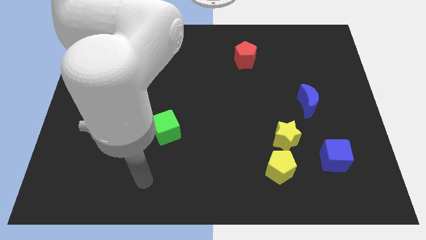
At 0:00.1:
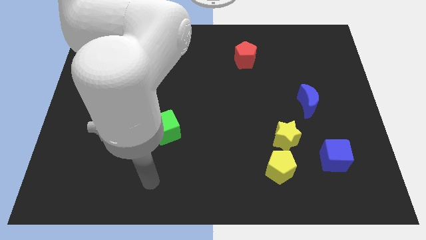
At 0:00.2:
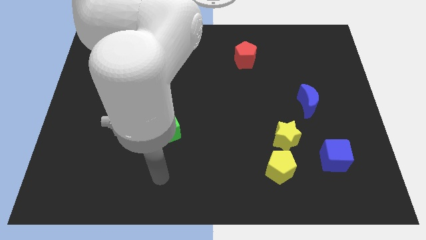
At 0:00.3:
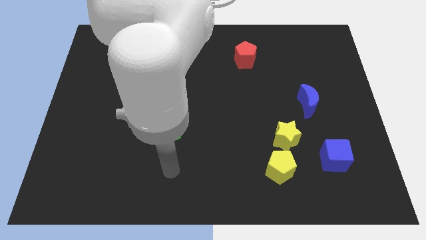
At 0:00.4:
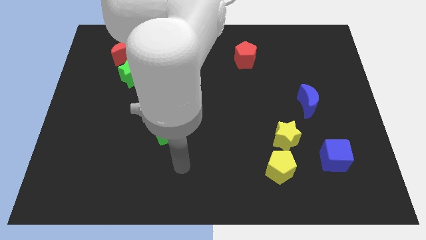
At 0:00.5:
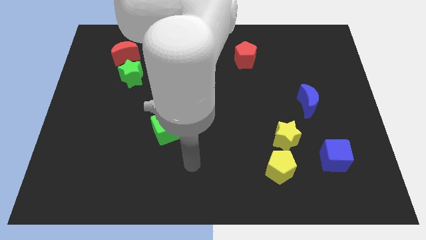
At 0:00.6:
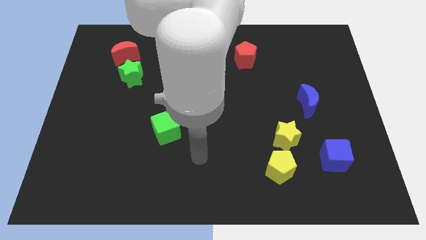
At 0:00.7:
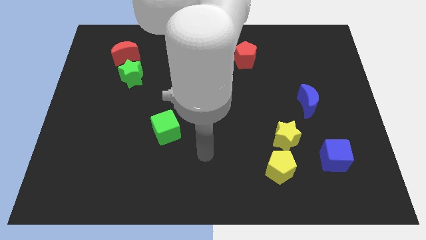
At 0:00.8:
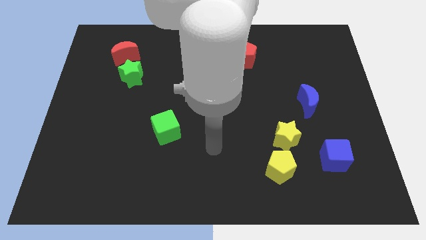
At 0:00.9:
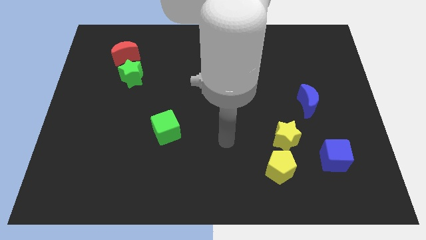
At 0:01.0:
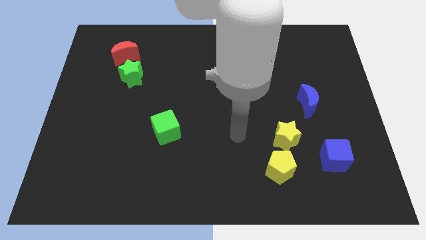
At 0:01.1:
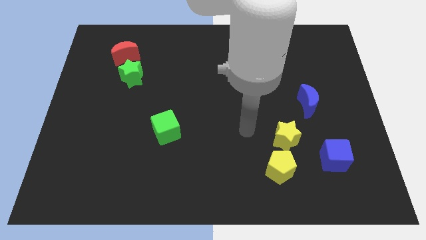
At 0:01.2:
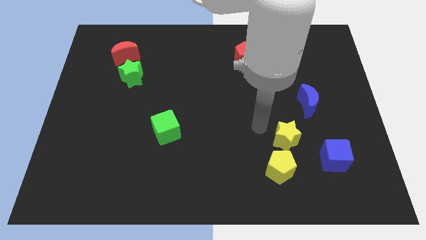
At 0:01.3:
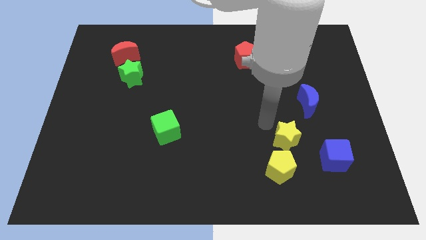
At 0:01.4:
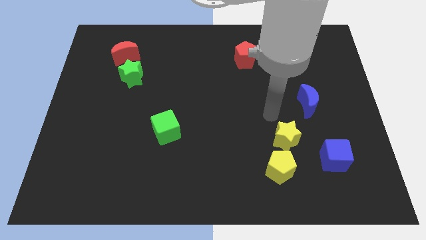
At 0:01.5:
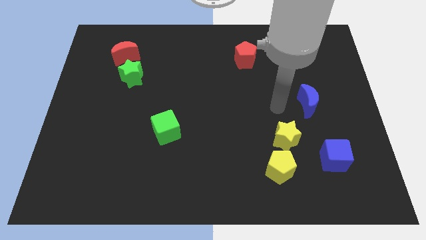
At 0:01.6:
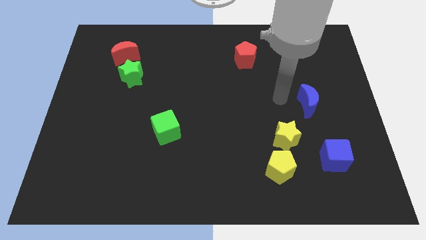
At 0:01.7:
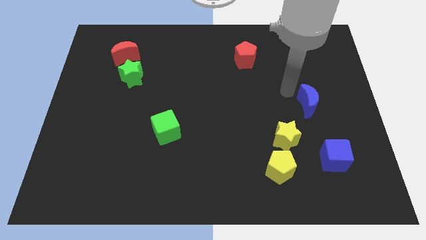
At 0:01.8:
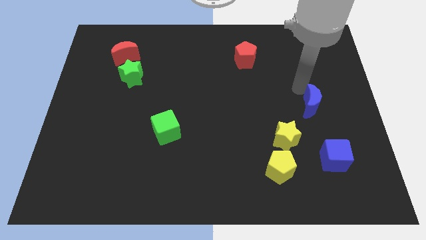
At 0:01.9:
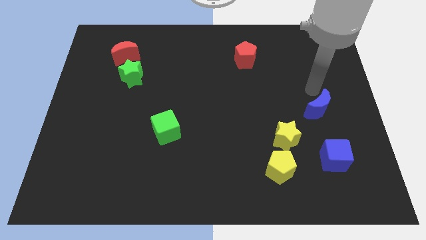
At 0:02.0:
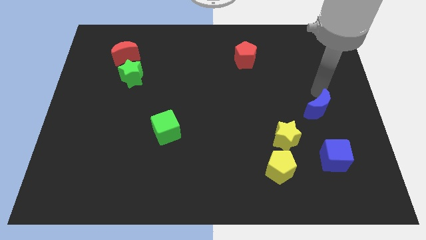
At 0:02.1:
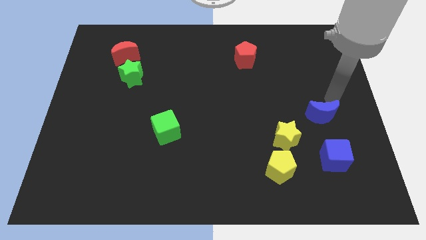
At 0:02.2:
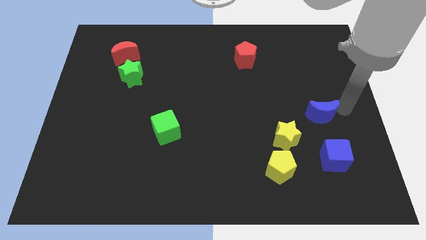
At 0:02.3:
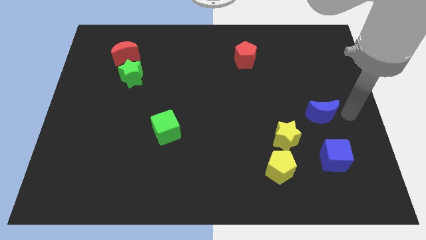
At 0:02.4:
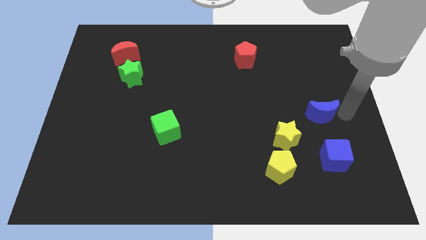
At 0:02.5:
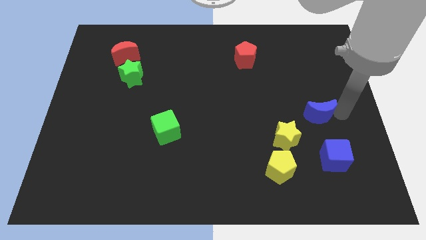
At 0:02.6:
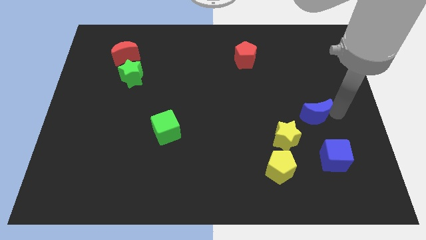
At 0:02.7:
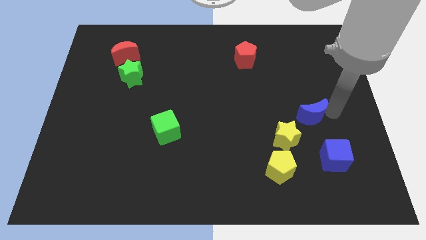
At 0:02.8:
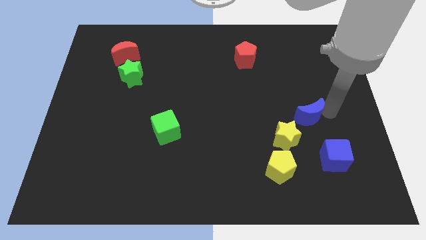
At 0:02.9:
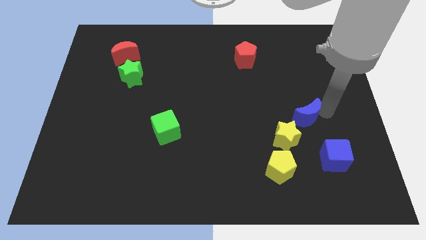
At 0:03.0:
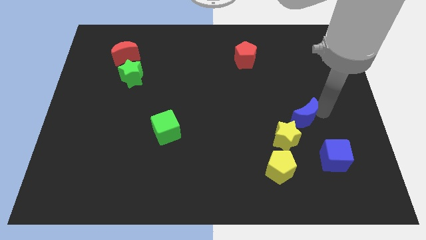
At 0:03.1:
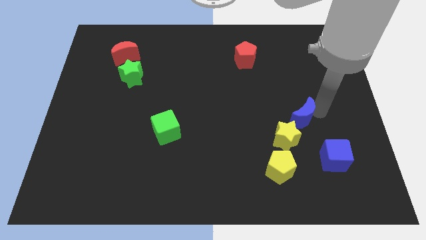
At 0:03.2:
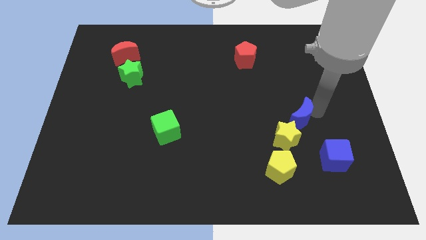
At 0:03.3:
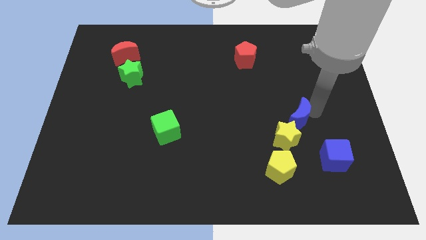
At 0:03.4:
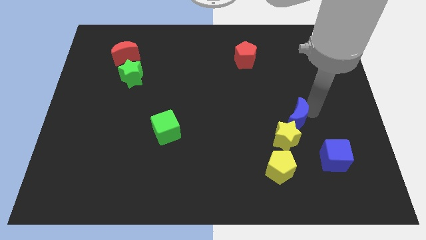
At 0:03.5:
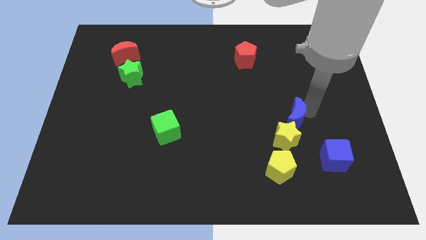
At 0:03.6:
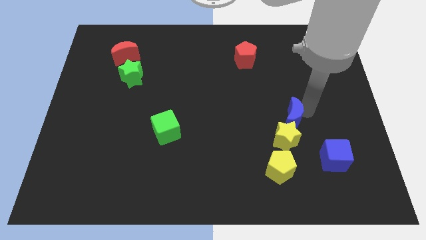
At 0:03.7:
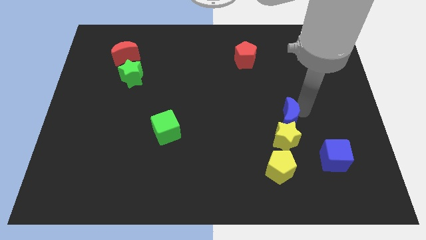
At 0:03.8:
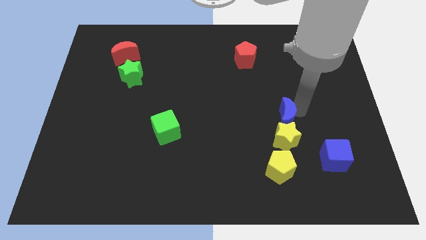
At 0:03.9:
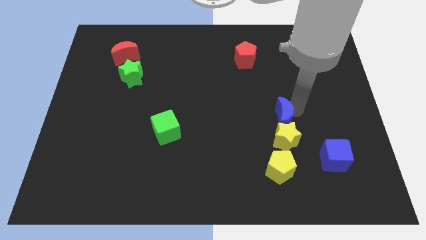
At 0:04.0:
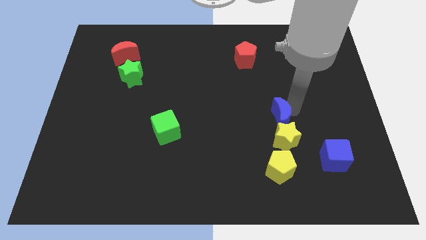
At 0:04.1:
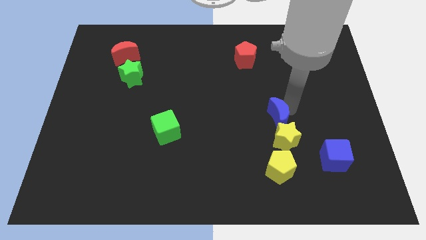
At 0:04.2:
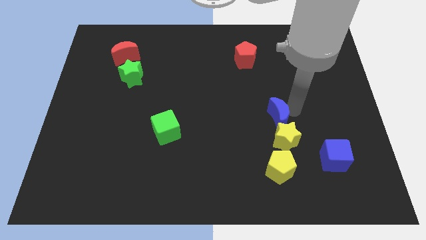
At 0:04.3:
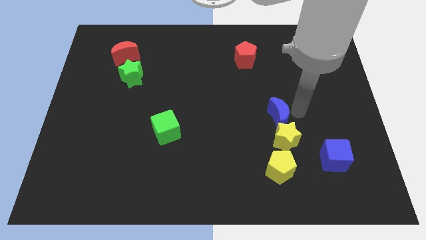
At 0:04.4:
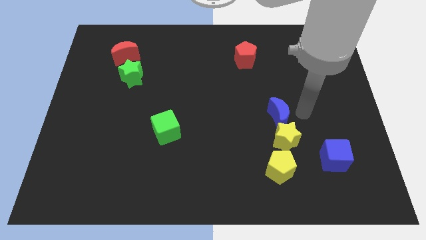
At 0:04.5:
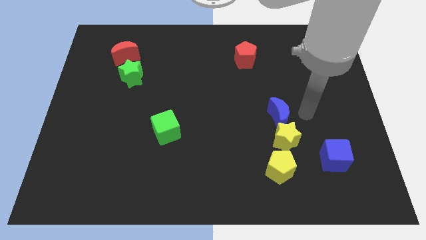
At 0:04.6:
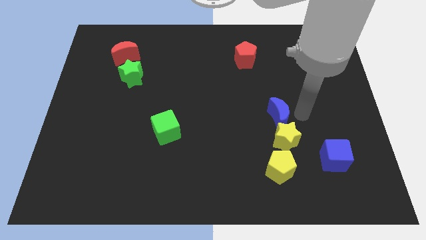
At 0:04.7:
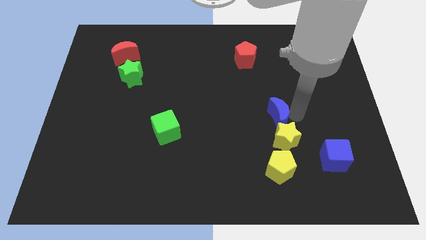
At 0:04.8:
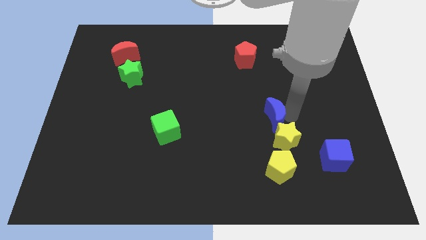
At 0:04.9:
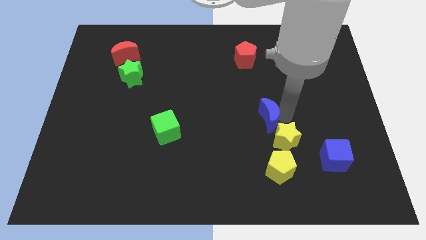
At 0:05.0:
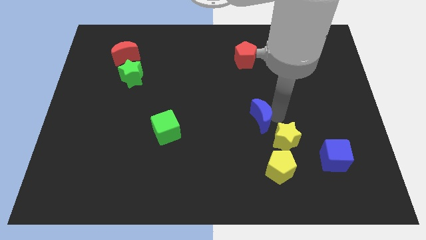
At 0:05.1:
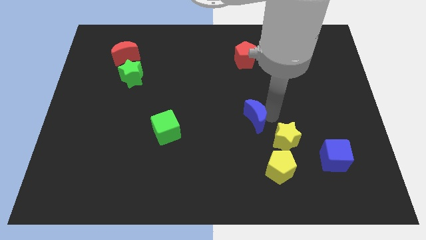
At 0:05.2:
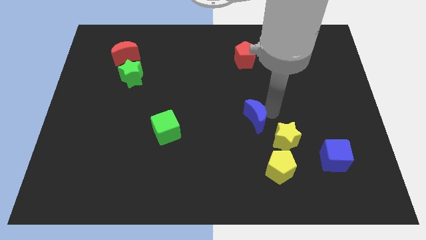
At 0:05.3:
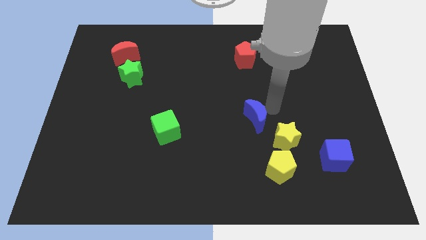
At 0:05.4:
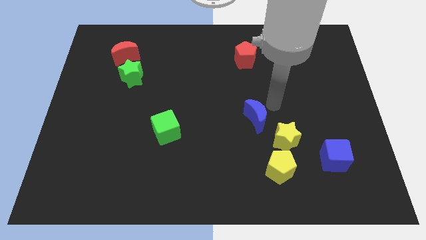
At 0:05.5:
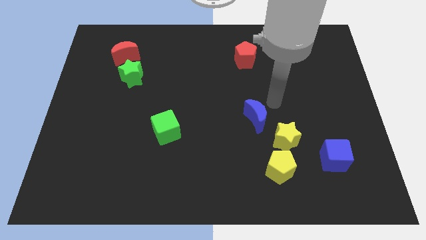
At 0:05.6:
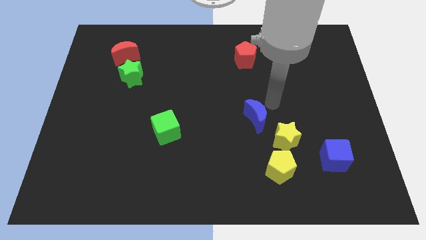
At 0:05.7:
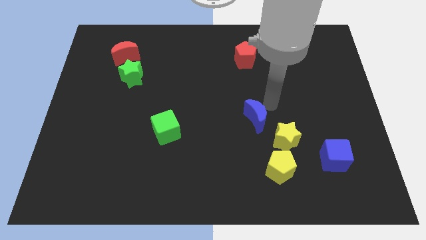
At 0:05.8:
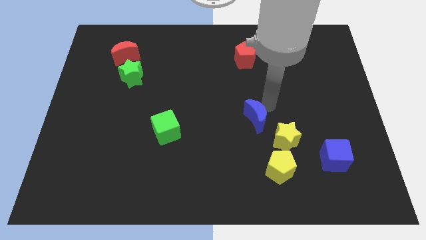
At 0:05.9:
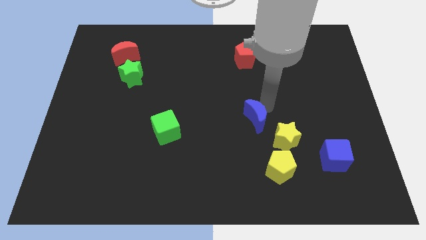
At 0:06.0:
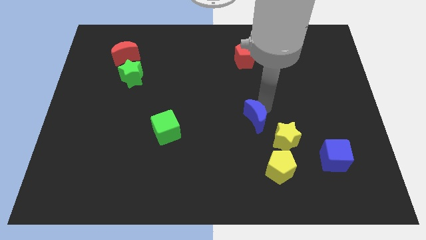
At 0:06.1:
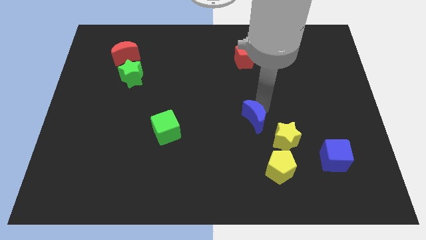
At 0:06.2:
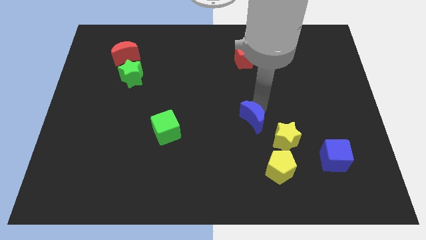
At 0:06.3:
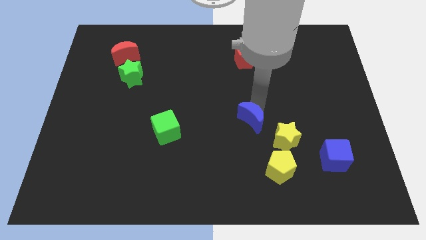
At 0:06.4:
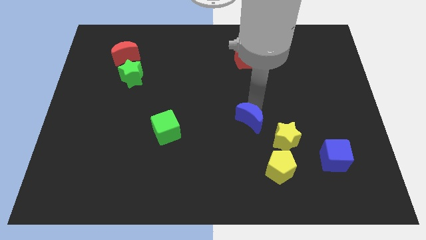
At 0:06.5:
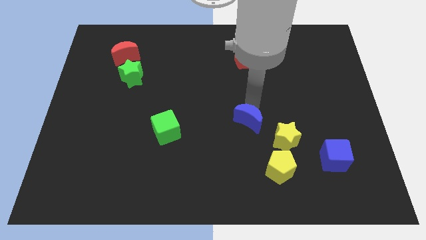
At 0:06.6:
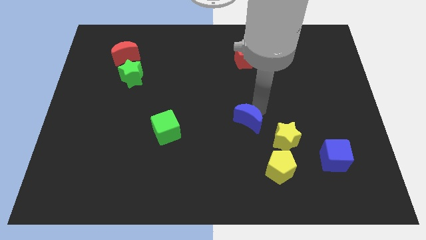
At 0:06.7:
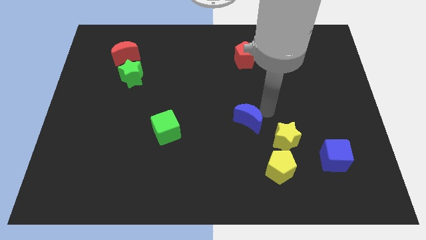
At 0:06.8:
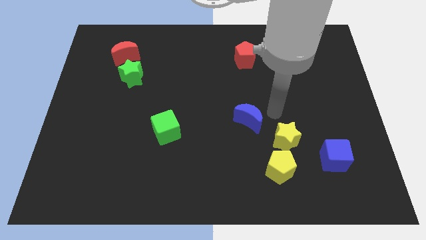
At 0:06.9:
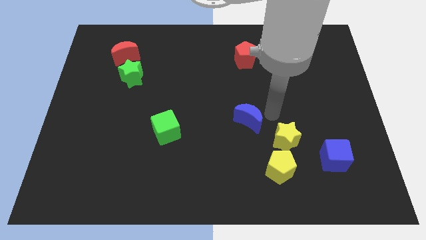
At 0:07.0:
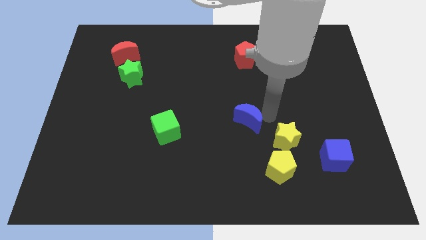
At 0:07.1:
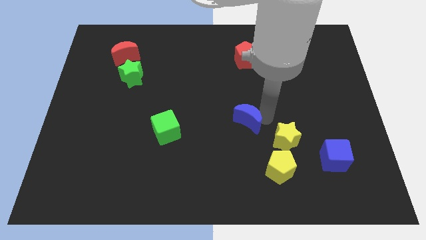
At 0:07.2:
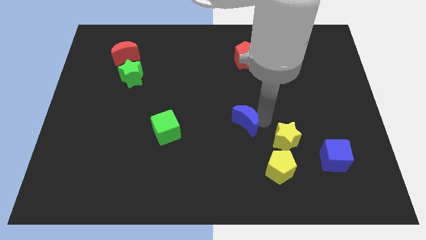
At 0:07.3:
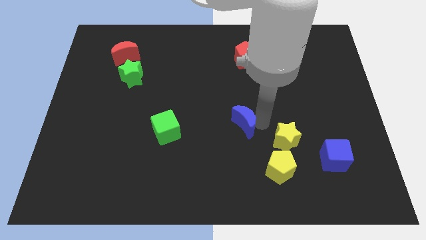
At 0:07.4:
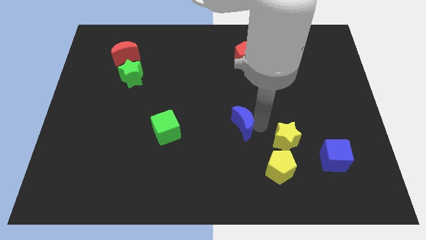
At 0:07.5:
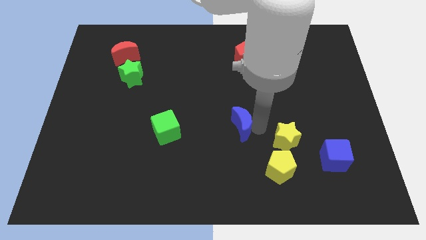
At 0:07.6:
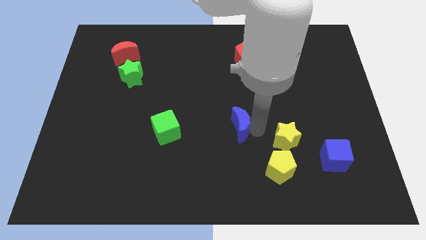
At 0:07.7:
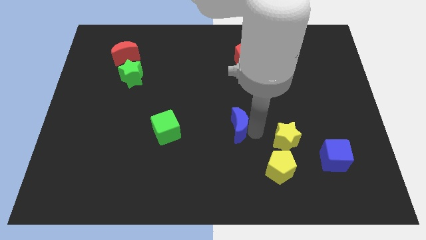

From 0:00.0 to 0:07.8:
put the blue moon right of the green cube
